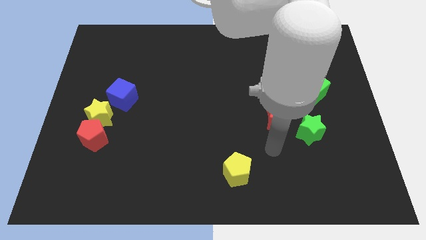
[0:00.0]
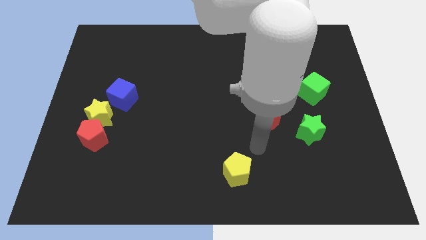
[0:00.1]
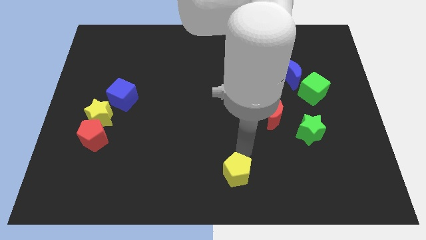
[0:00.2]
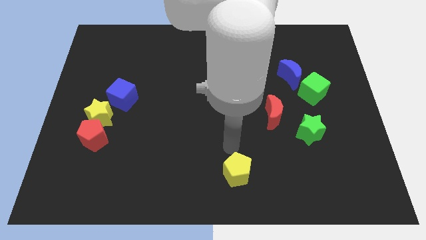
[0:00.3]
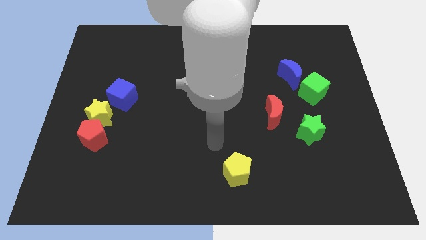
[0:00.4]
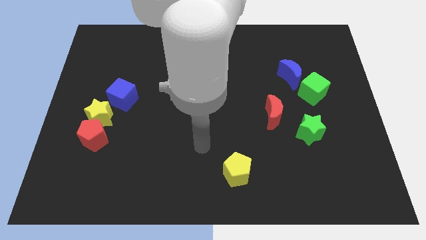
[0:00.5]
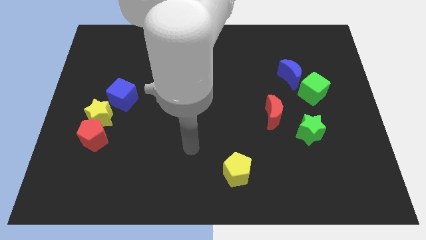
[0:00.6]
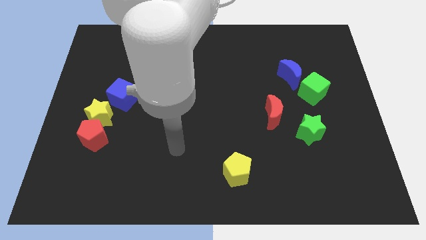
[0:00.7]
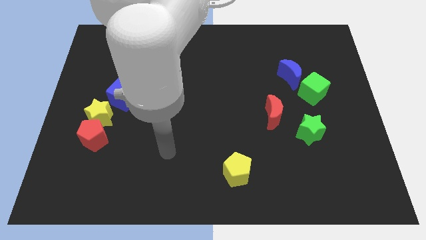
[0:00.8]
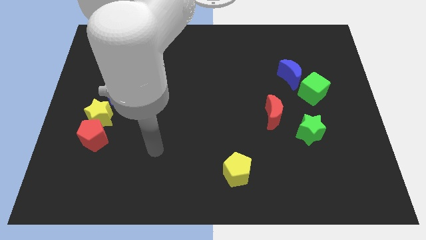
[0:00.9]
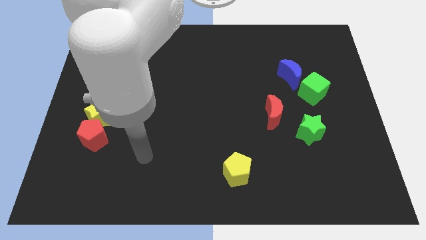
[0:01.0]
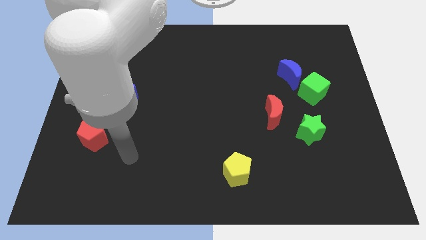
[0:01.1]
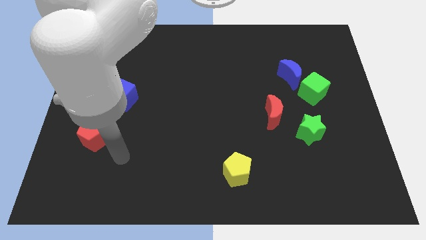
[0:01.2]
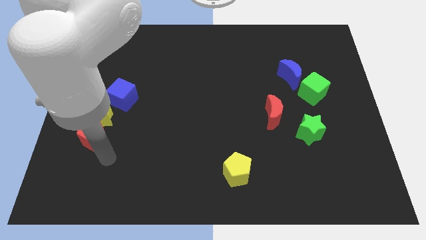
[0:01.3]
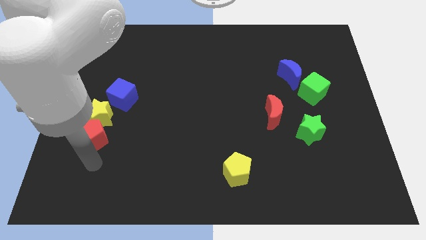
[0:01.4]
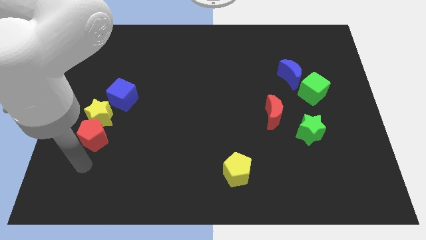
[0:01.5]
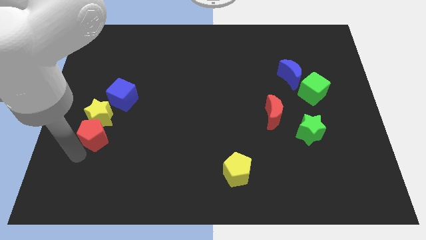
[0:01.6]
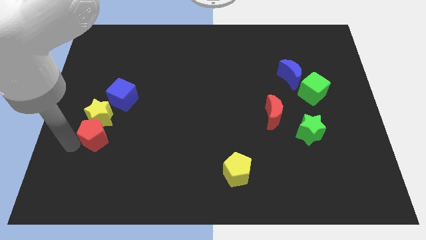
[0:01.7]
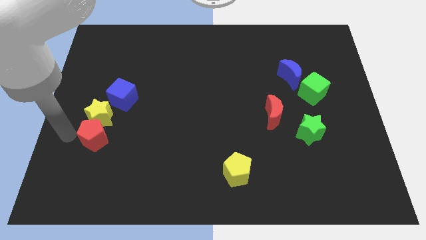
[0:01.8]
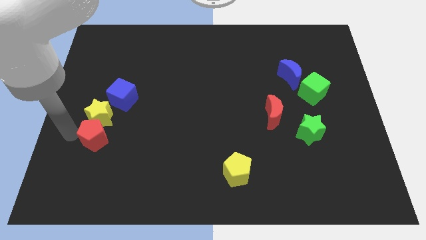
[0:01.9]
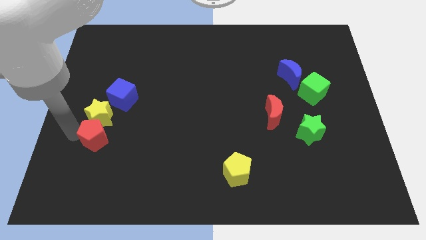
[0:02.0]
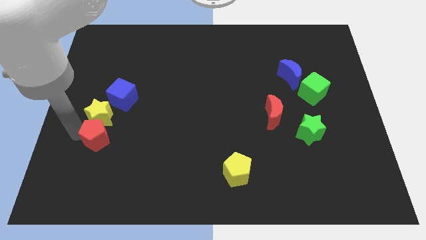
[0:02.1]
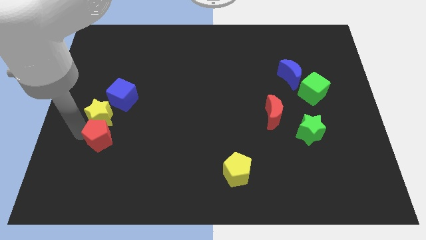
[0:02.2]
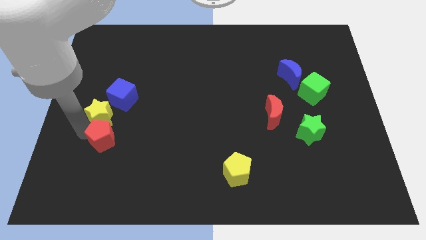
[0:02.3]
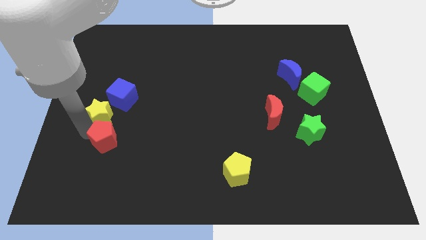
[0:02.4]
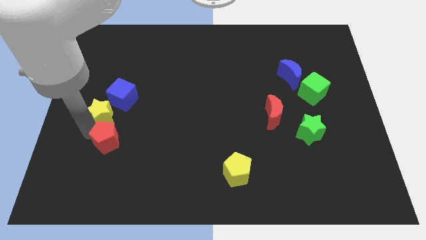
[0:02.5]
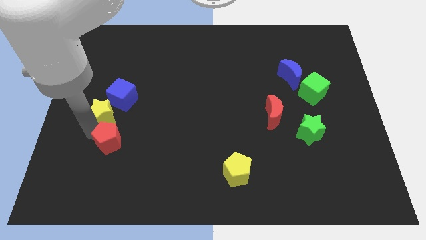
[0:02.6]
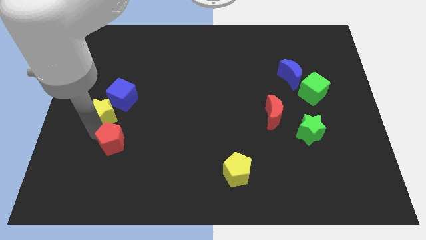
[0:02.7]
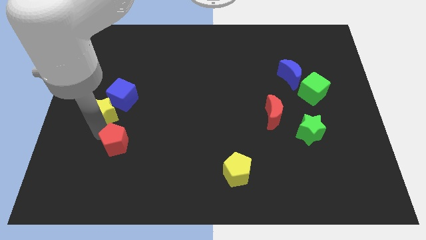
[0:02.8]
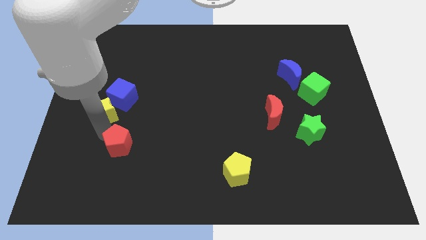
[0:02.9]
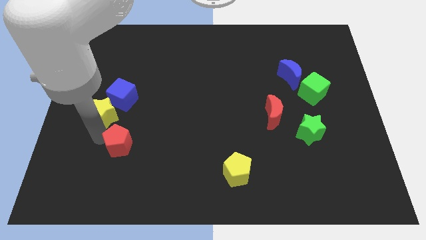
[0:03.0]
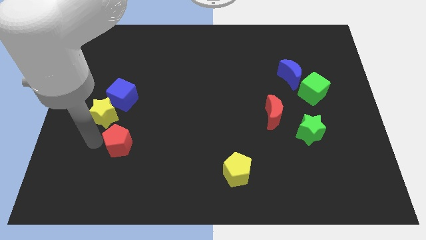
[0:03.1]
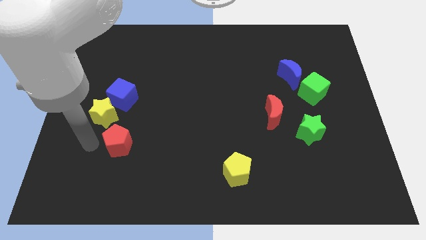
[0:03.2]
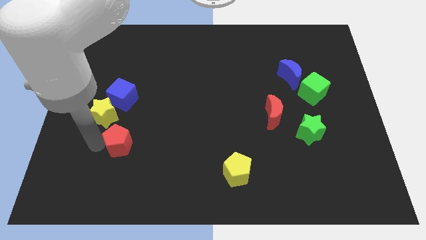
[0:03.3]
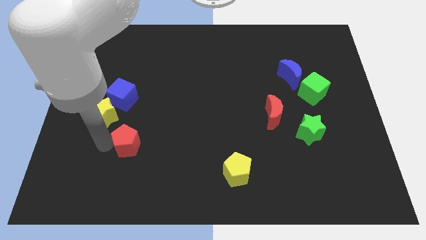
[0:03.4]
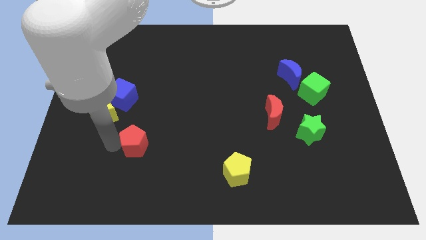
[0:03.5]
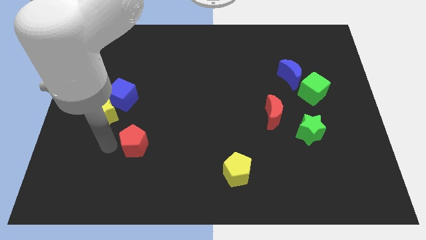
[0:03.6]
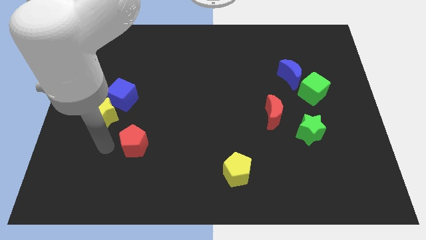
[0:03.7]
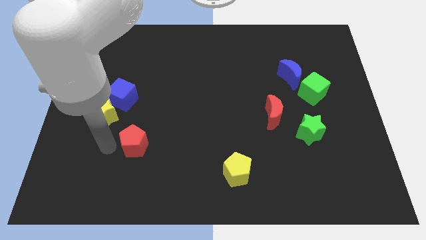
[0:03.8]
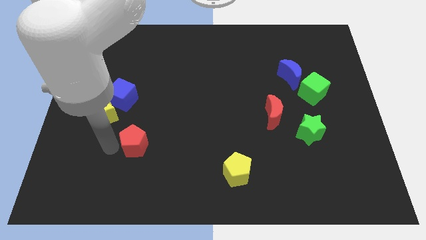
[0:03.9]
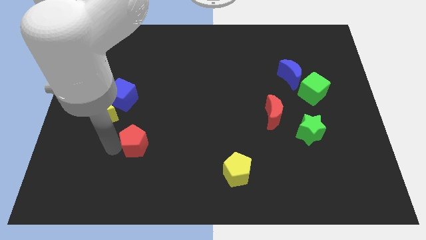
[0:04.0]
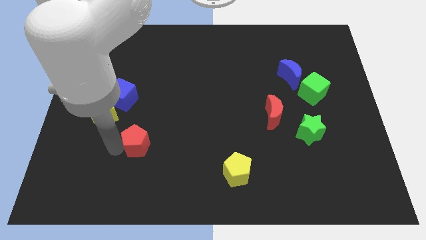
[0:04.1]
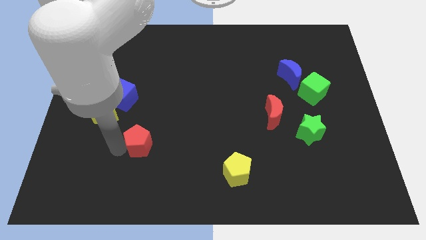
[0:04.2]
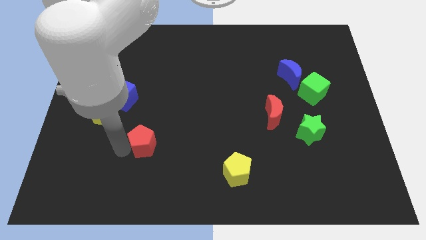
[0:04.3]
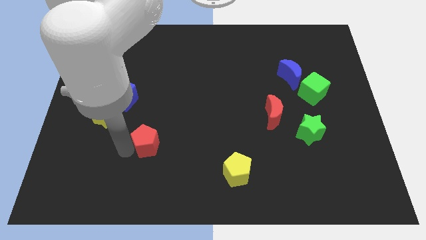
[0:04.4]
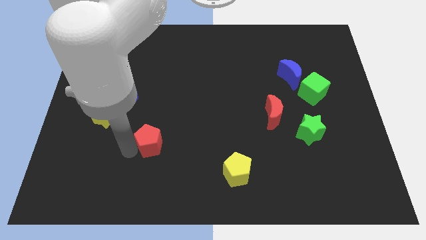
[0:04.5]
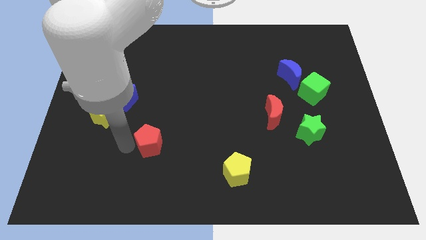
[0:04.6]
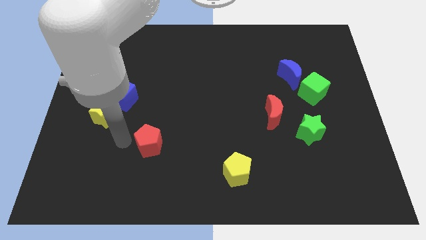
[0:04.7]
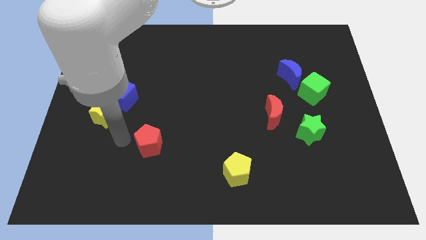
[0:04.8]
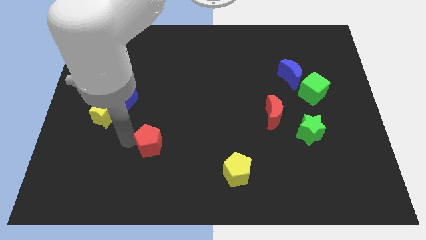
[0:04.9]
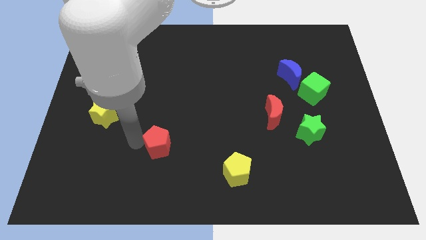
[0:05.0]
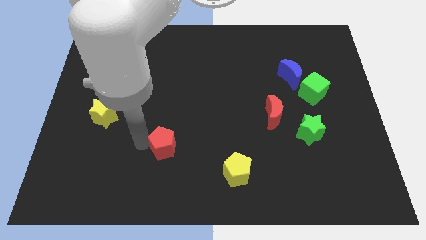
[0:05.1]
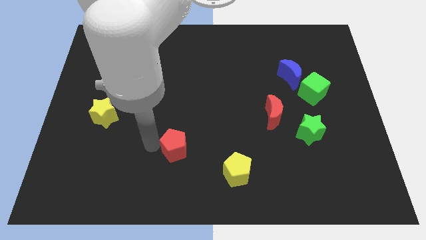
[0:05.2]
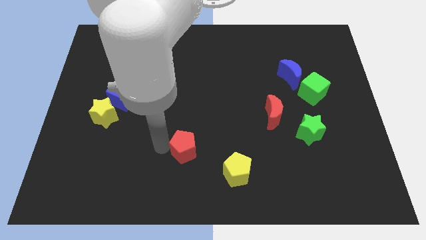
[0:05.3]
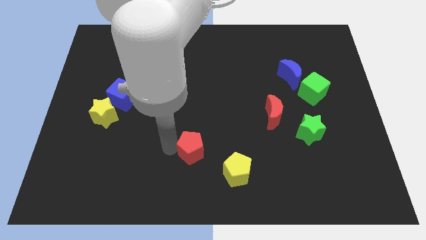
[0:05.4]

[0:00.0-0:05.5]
slide the red pentagon diagonally up and to the left of the yellow pentagon

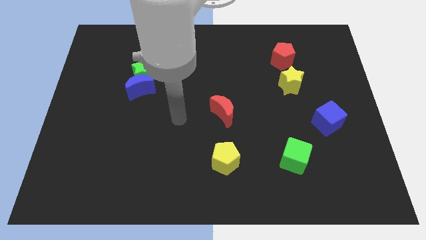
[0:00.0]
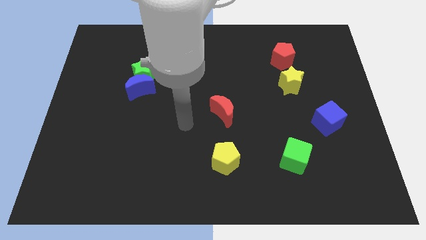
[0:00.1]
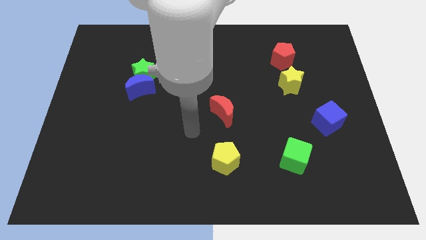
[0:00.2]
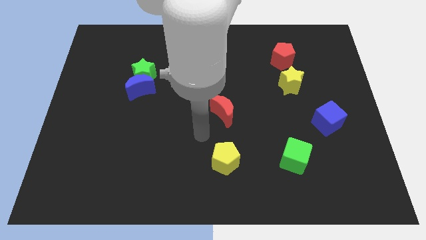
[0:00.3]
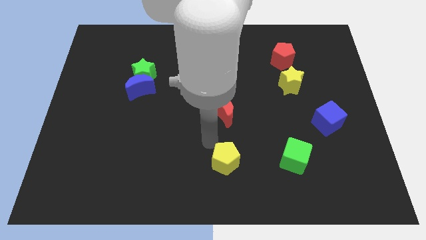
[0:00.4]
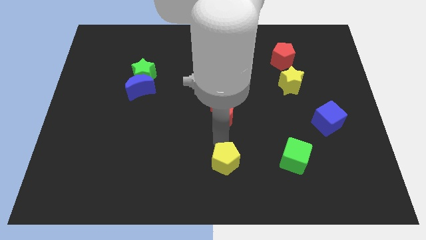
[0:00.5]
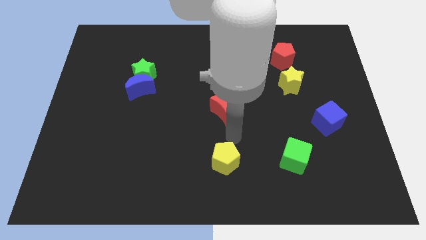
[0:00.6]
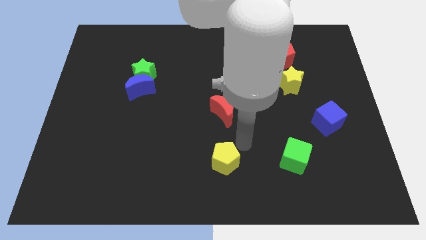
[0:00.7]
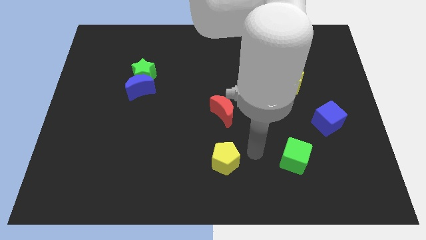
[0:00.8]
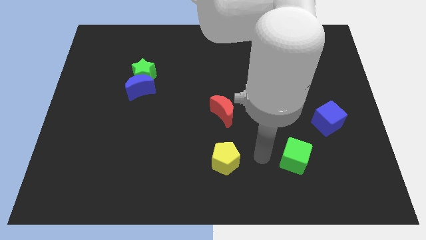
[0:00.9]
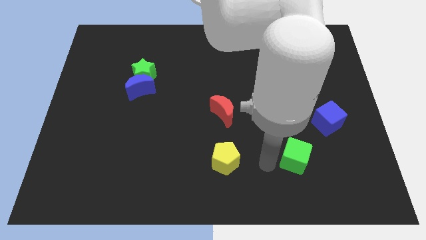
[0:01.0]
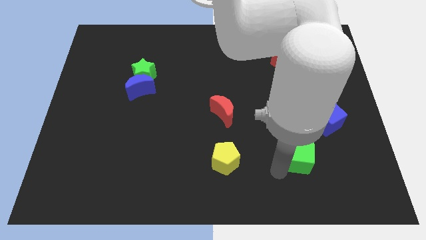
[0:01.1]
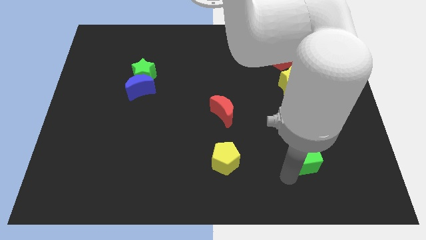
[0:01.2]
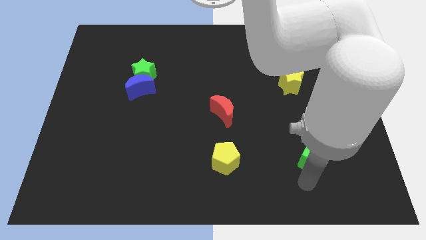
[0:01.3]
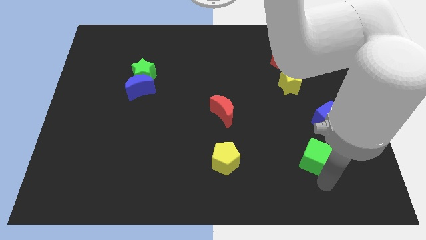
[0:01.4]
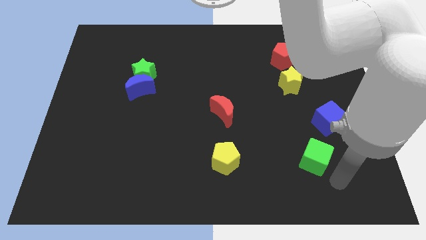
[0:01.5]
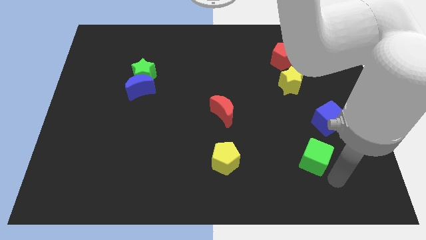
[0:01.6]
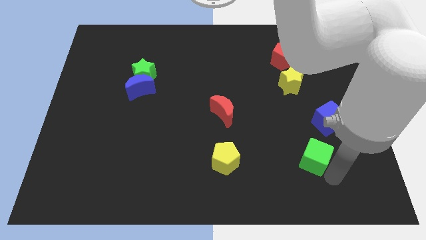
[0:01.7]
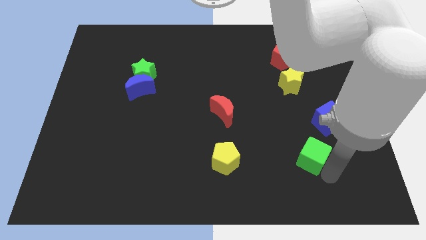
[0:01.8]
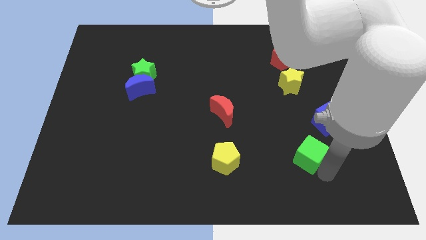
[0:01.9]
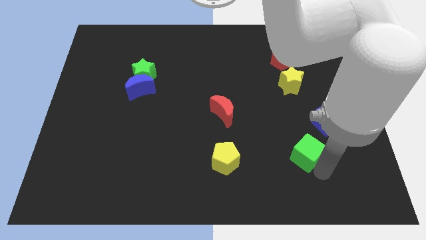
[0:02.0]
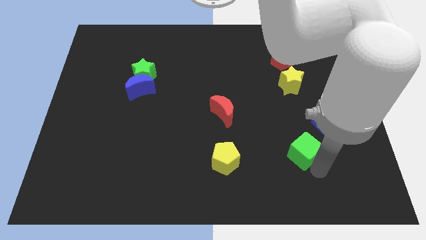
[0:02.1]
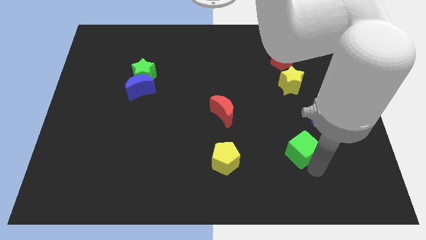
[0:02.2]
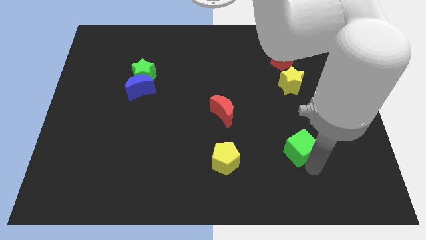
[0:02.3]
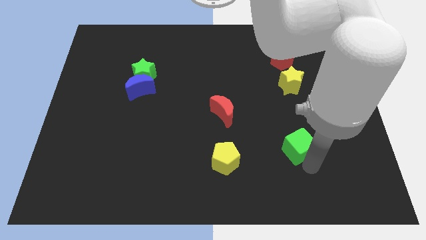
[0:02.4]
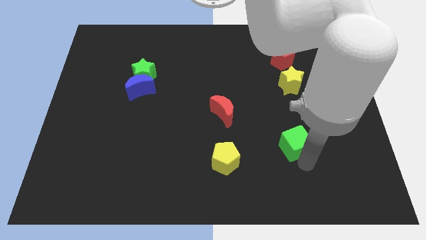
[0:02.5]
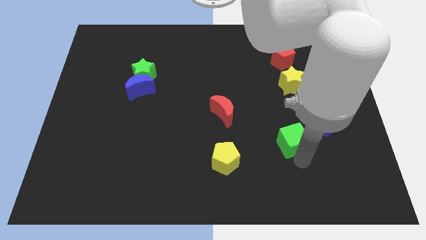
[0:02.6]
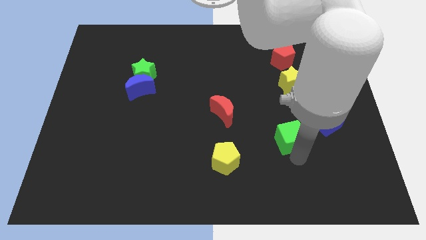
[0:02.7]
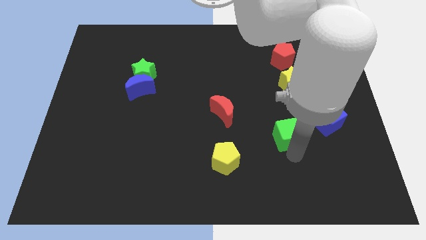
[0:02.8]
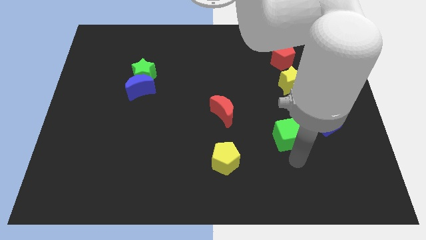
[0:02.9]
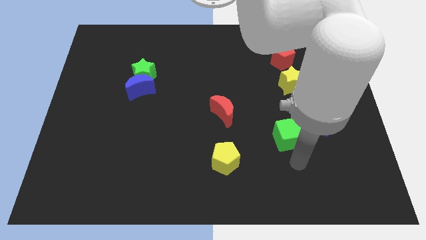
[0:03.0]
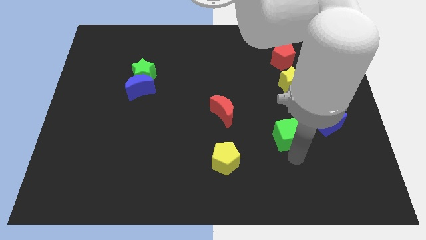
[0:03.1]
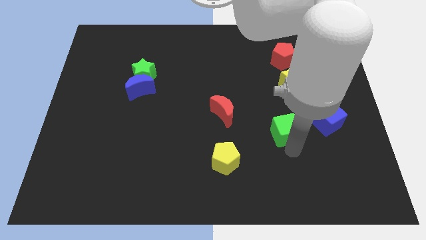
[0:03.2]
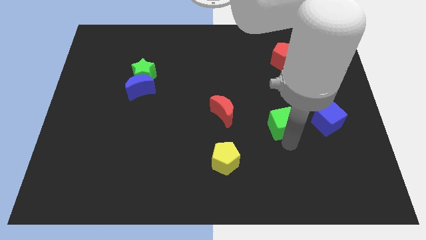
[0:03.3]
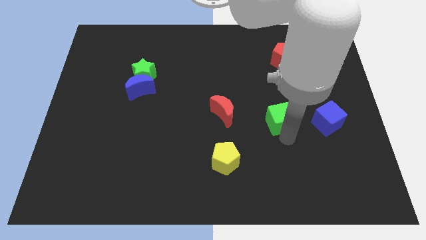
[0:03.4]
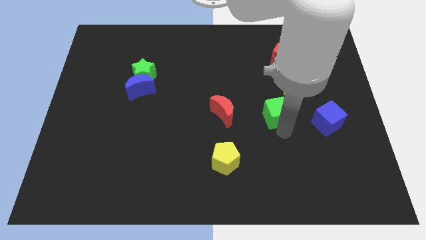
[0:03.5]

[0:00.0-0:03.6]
push the green cube diagonally down and to the left of the yellow star
